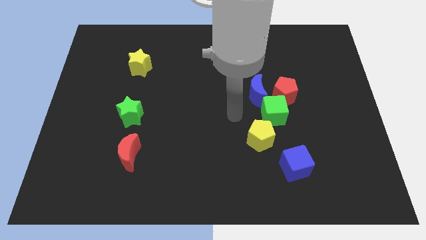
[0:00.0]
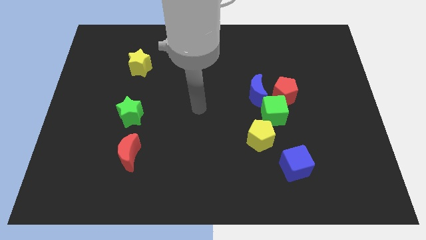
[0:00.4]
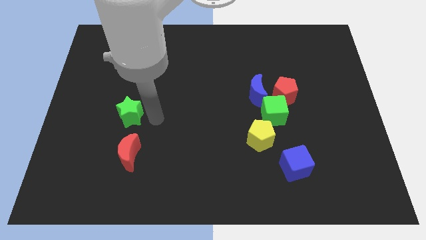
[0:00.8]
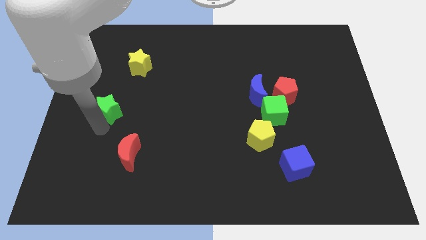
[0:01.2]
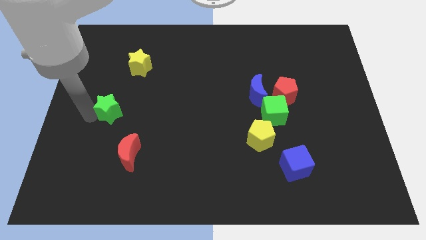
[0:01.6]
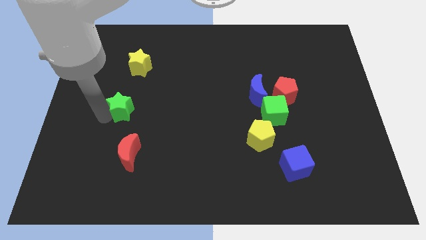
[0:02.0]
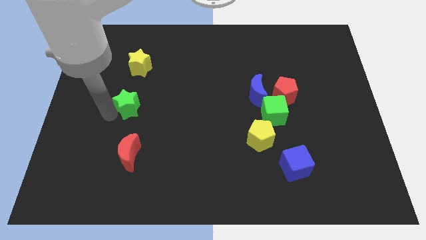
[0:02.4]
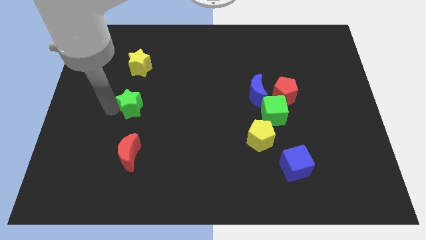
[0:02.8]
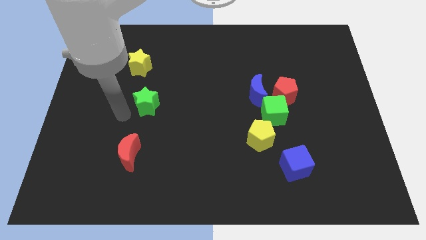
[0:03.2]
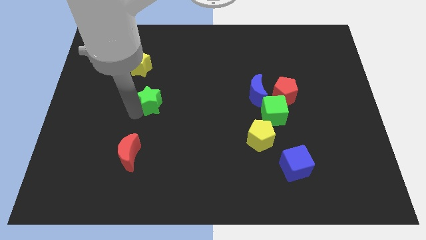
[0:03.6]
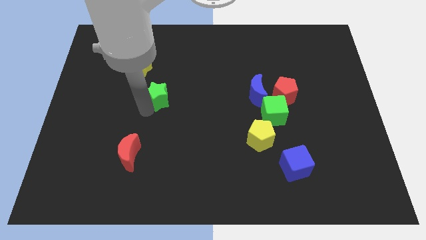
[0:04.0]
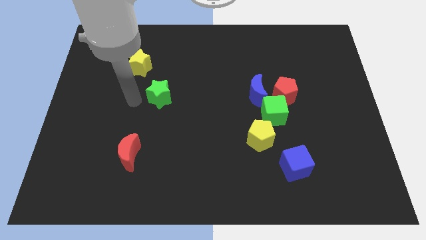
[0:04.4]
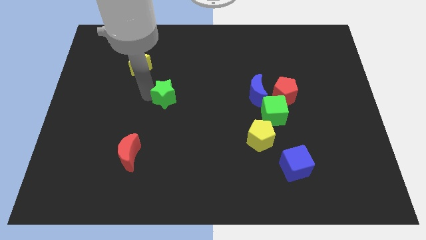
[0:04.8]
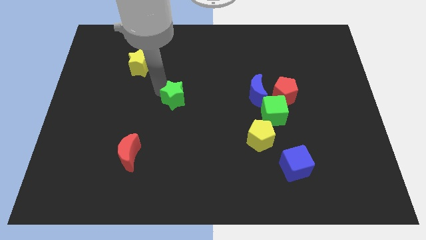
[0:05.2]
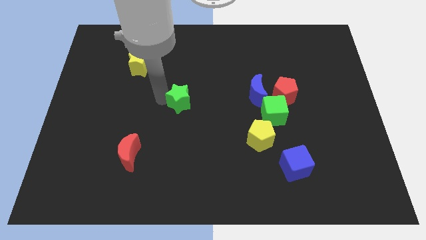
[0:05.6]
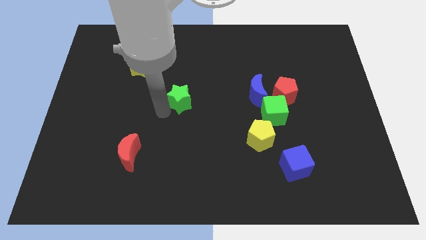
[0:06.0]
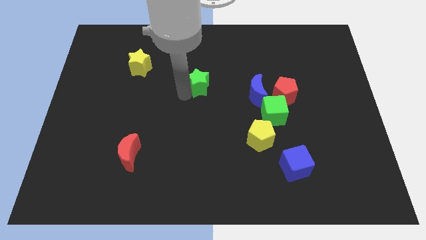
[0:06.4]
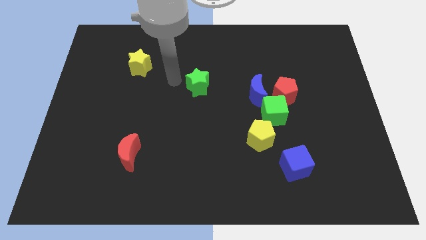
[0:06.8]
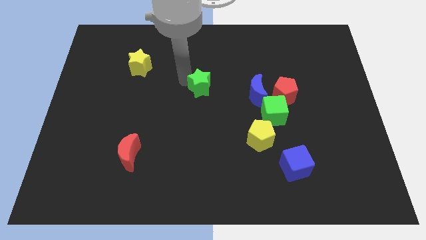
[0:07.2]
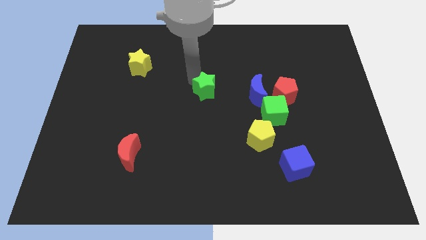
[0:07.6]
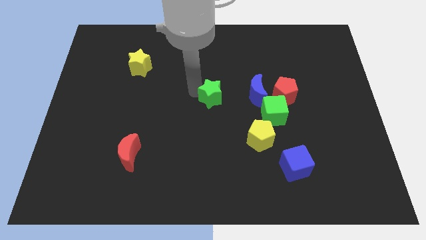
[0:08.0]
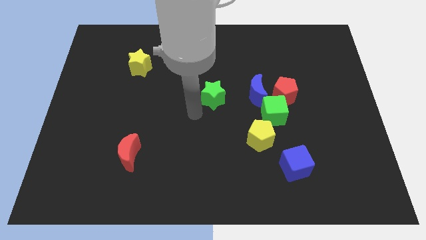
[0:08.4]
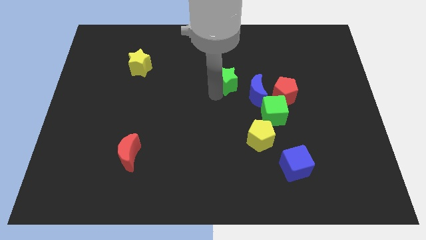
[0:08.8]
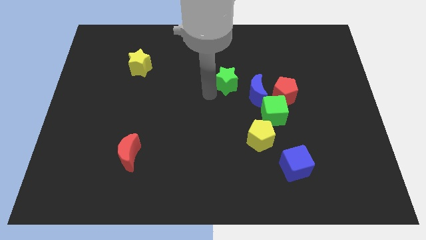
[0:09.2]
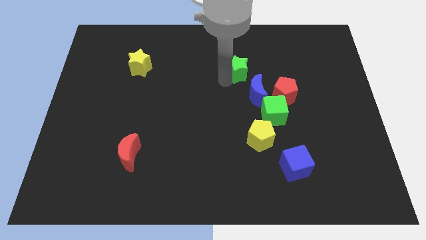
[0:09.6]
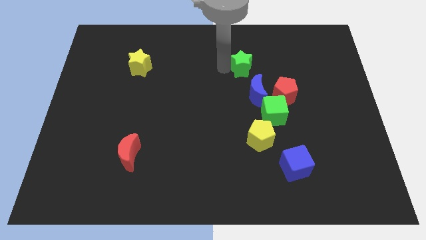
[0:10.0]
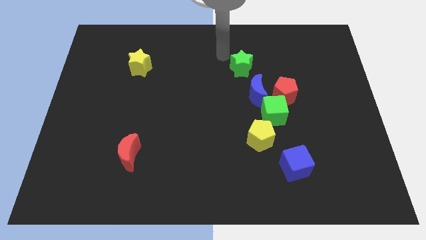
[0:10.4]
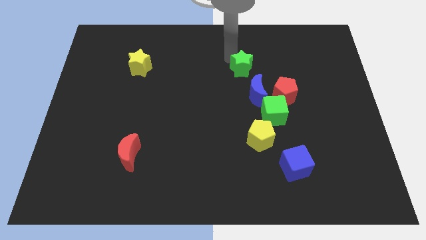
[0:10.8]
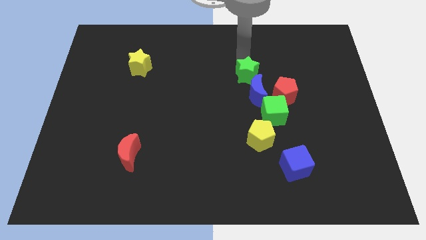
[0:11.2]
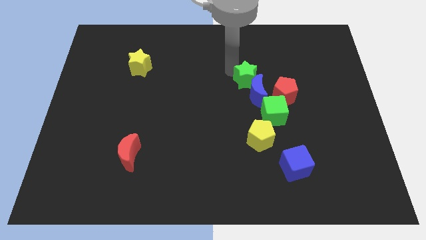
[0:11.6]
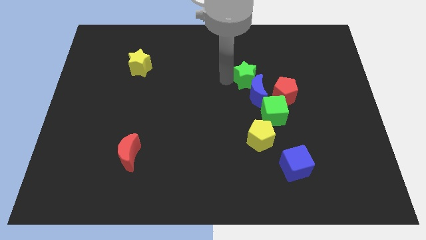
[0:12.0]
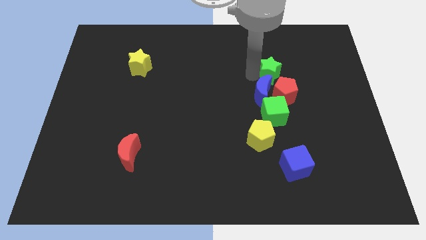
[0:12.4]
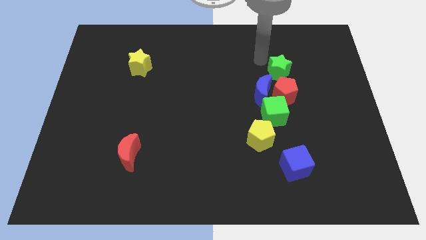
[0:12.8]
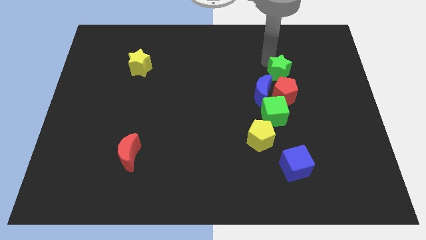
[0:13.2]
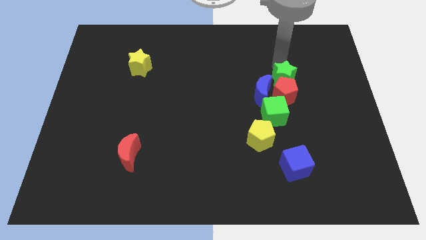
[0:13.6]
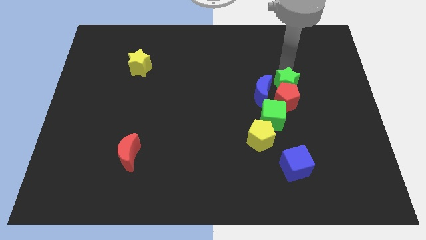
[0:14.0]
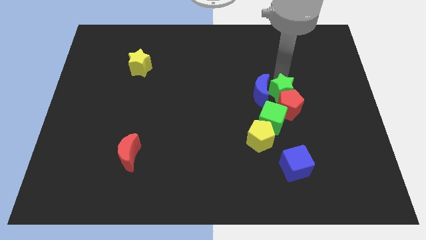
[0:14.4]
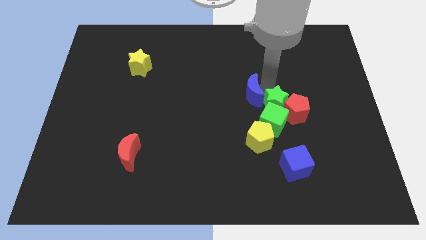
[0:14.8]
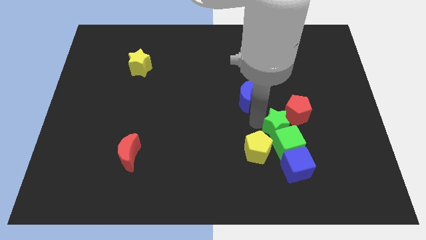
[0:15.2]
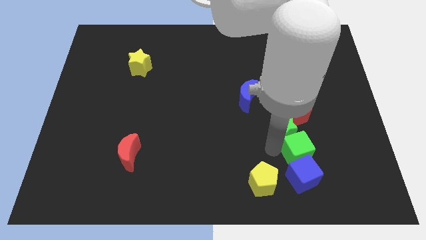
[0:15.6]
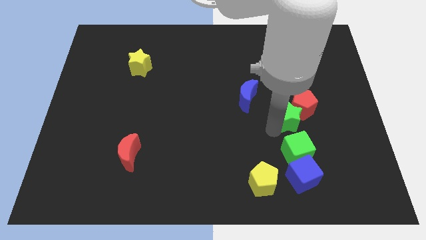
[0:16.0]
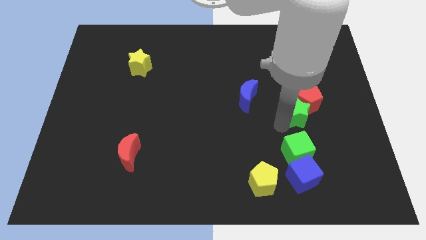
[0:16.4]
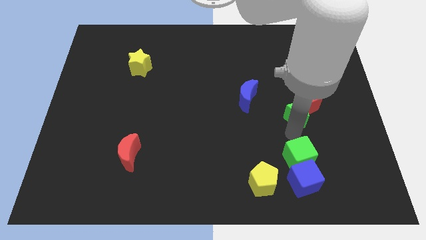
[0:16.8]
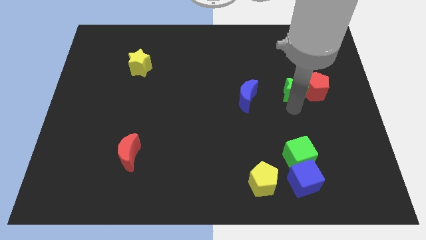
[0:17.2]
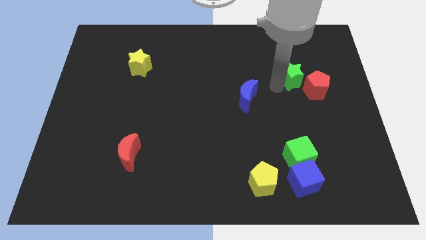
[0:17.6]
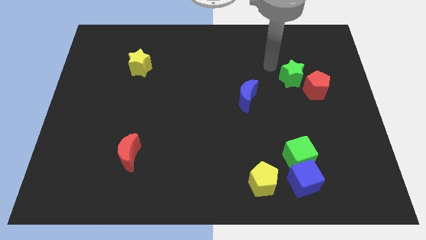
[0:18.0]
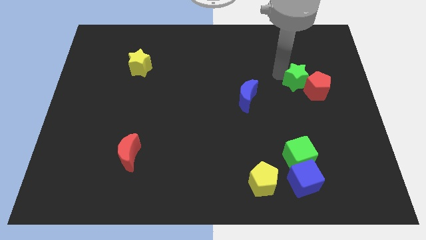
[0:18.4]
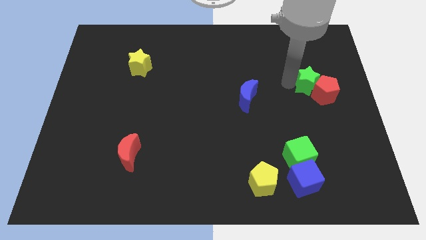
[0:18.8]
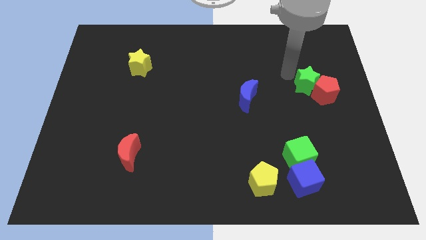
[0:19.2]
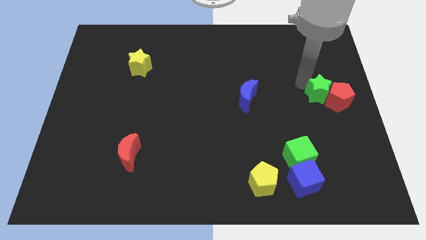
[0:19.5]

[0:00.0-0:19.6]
slide the green star to the right side of the board

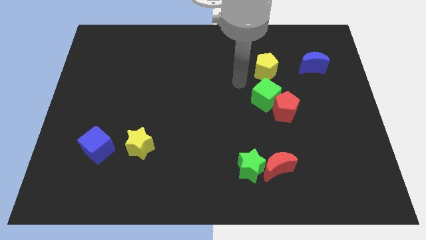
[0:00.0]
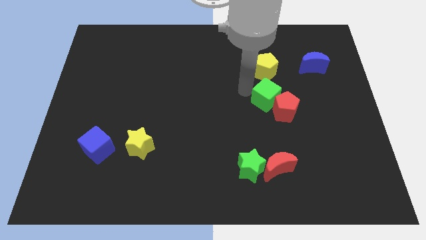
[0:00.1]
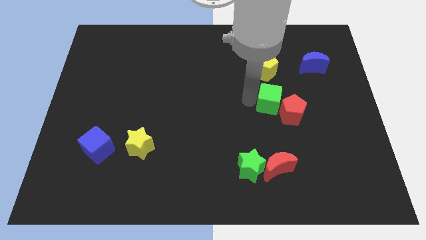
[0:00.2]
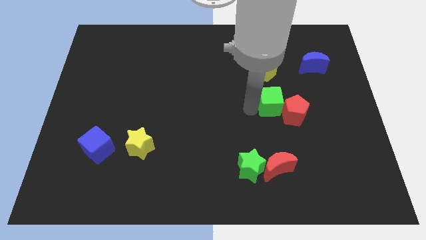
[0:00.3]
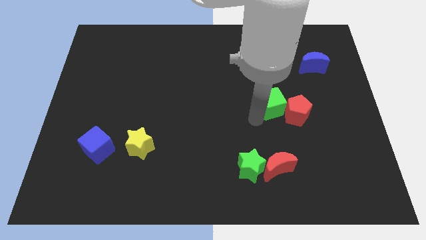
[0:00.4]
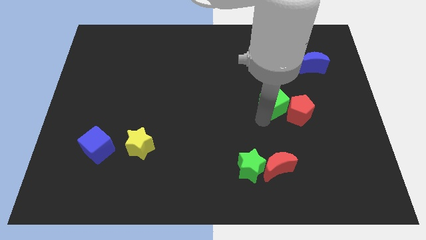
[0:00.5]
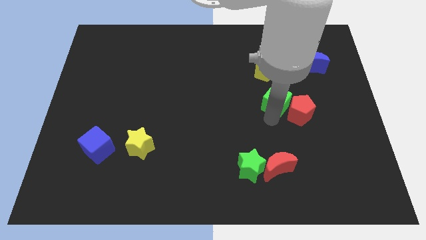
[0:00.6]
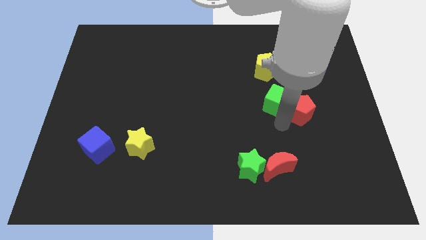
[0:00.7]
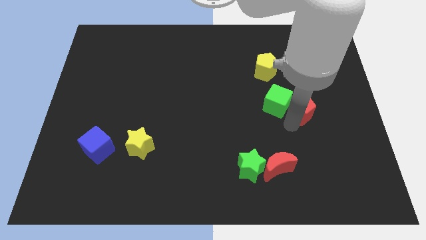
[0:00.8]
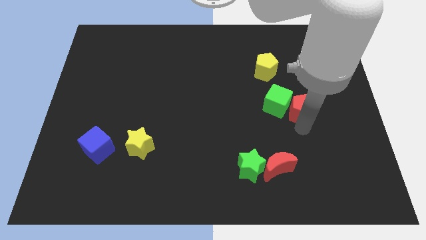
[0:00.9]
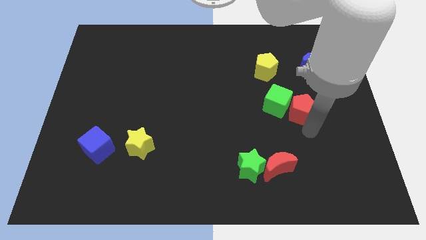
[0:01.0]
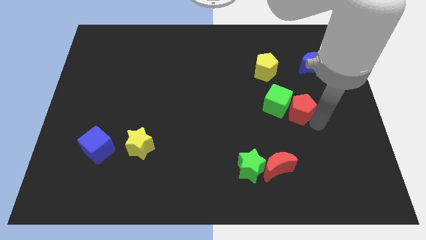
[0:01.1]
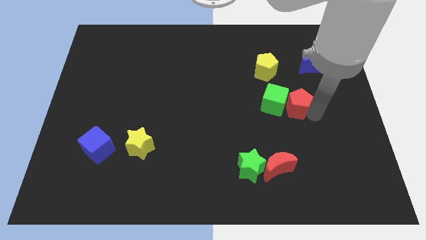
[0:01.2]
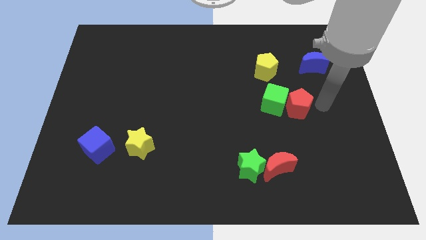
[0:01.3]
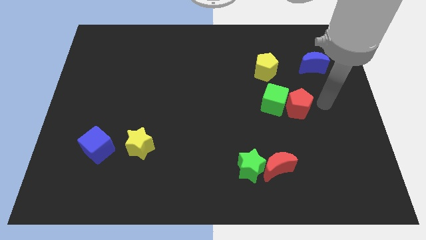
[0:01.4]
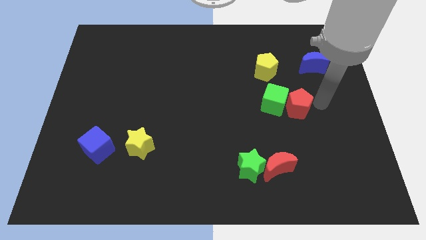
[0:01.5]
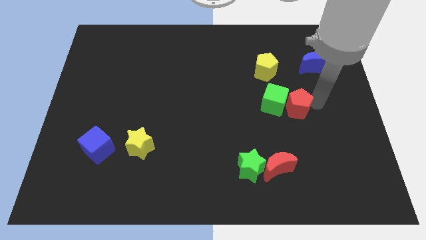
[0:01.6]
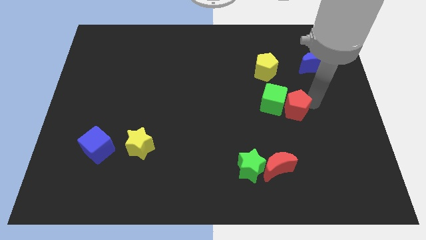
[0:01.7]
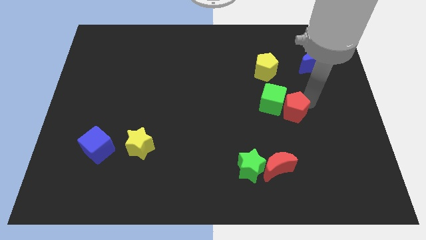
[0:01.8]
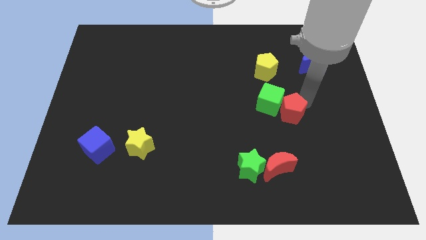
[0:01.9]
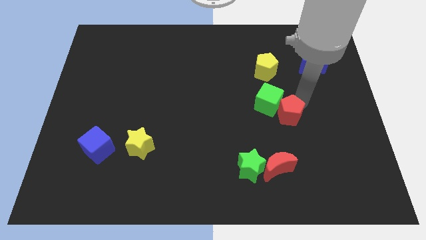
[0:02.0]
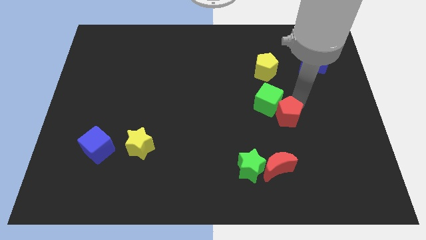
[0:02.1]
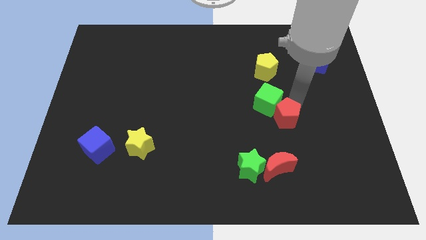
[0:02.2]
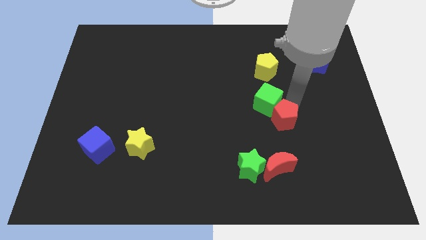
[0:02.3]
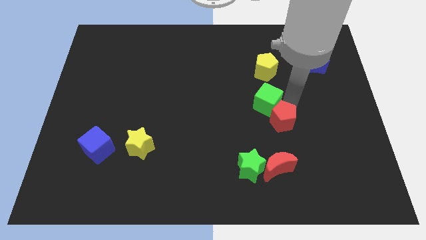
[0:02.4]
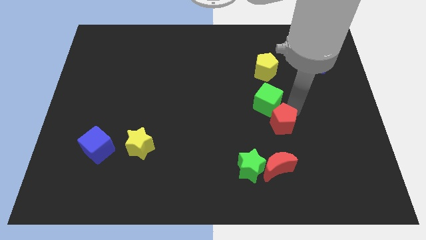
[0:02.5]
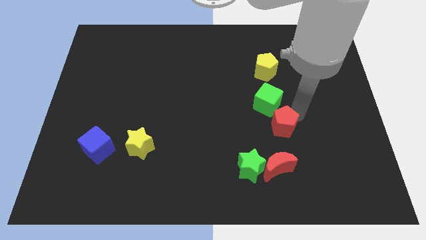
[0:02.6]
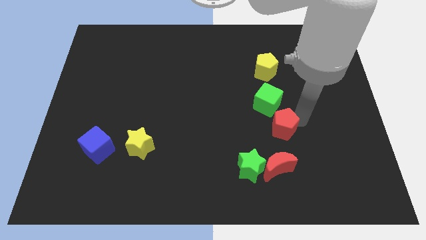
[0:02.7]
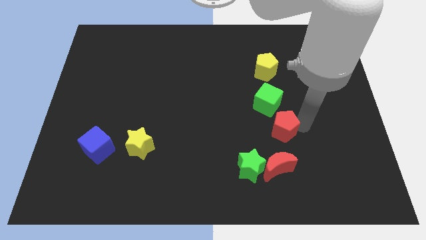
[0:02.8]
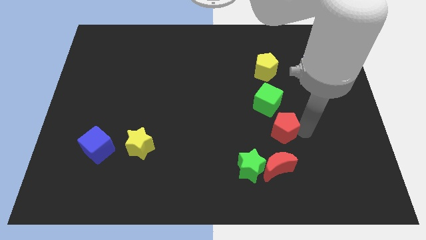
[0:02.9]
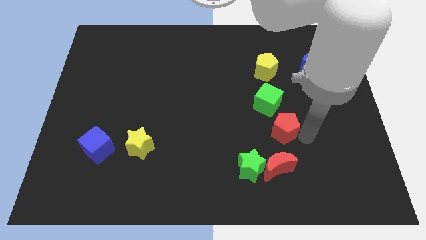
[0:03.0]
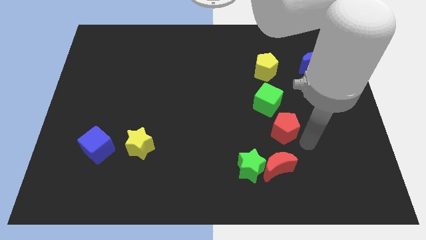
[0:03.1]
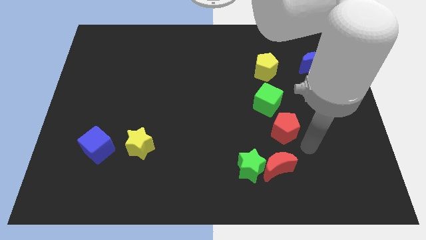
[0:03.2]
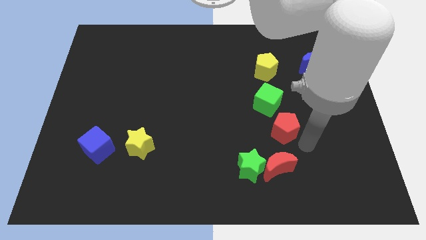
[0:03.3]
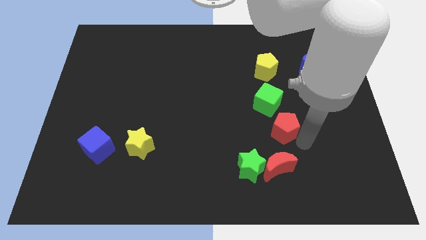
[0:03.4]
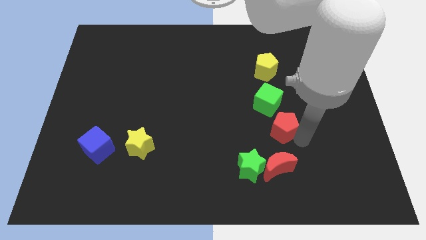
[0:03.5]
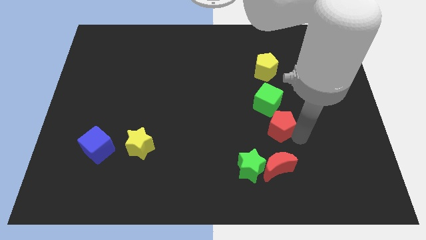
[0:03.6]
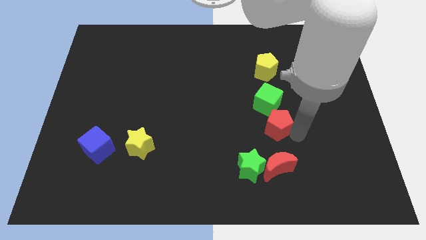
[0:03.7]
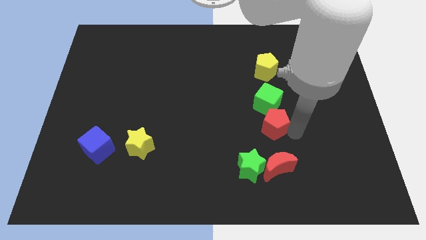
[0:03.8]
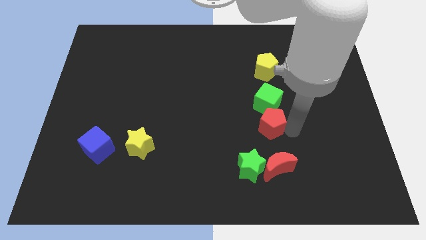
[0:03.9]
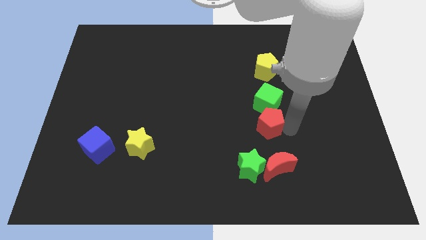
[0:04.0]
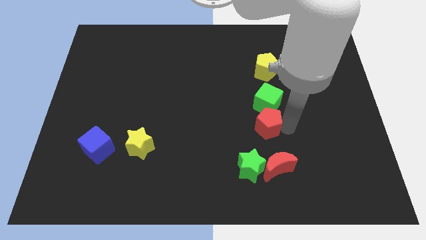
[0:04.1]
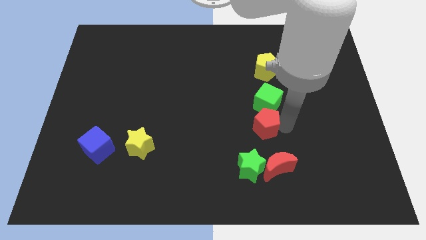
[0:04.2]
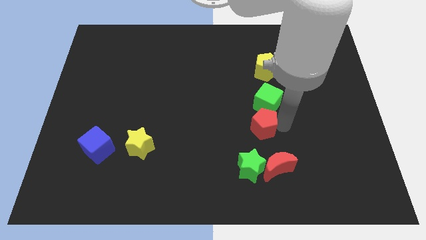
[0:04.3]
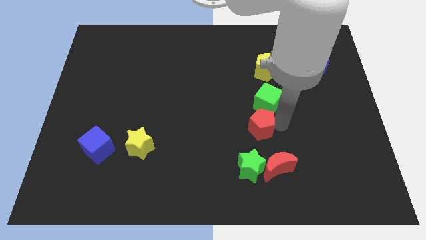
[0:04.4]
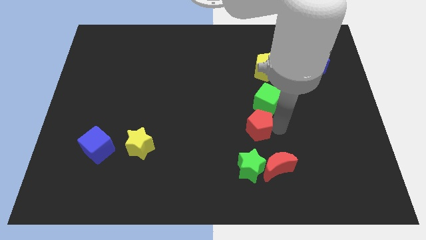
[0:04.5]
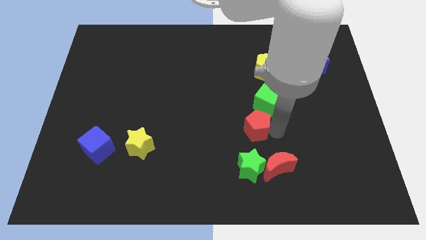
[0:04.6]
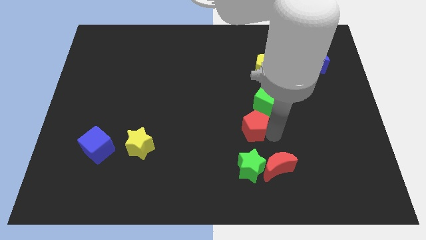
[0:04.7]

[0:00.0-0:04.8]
slide the red pentagon to the center of the board
